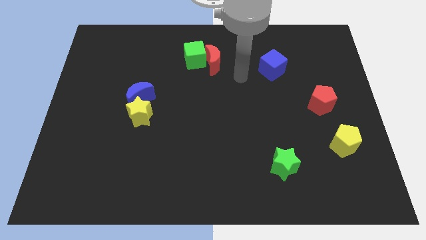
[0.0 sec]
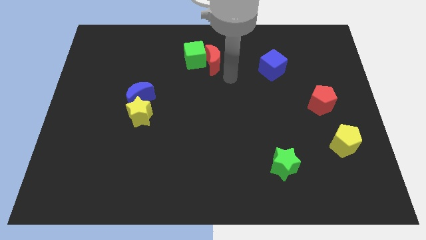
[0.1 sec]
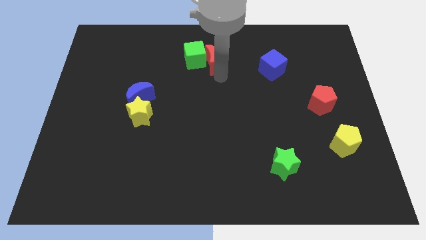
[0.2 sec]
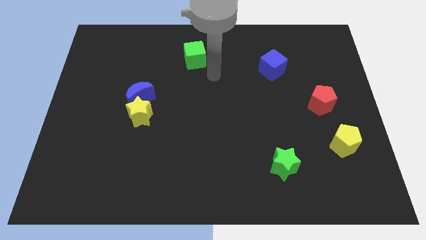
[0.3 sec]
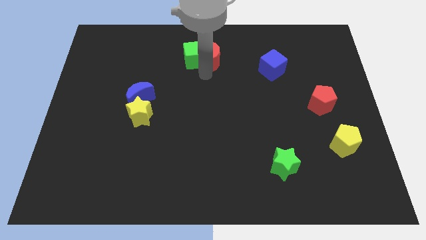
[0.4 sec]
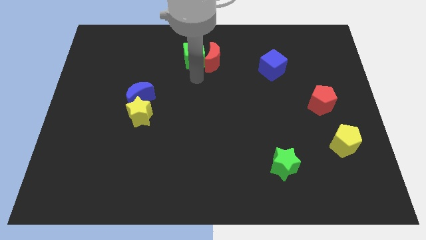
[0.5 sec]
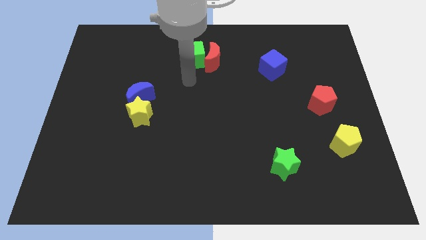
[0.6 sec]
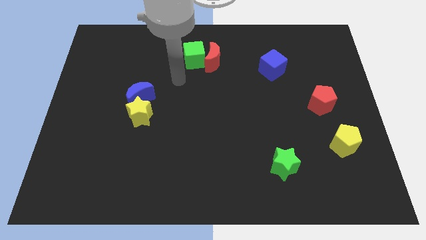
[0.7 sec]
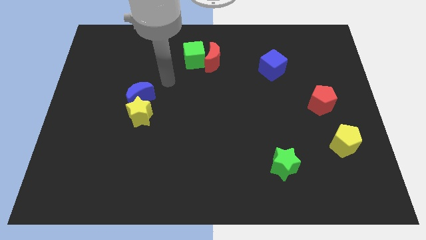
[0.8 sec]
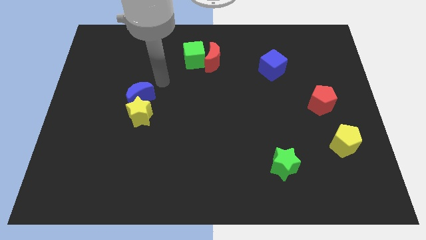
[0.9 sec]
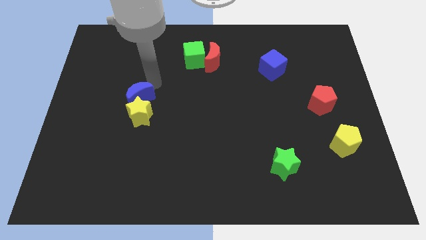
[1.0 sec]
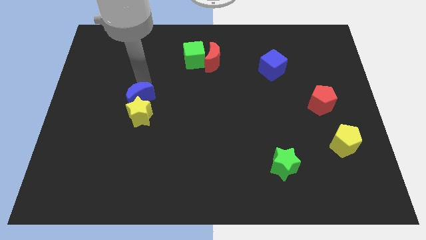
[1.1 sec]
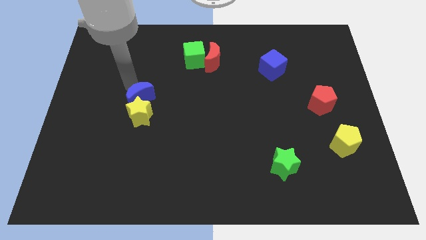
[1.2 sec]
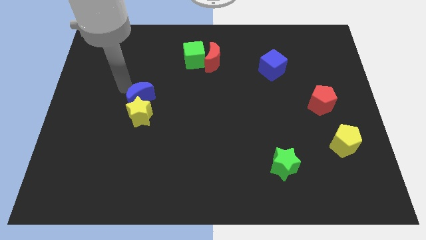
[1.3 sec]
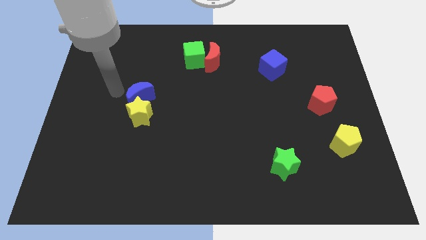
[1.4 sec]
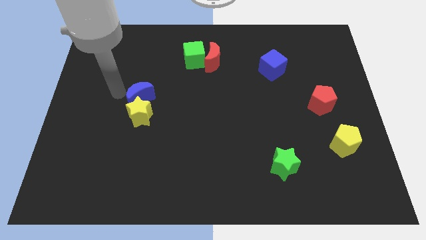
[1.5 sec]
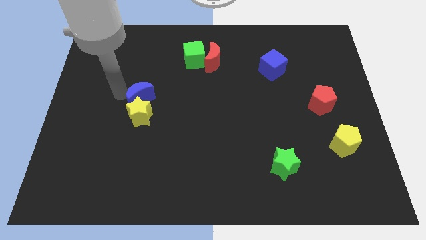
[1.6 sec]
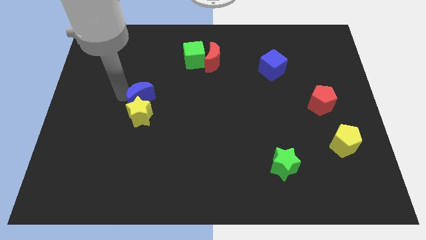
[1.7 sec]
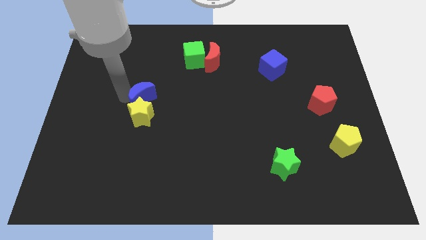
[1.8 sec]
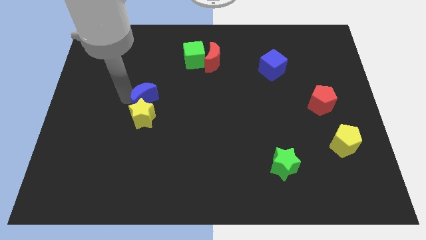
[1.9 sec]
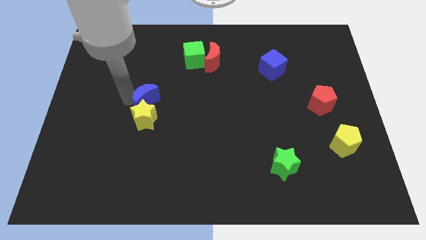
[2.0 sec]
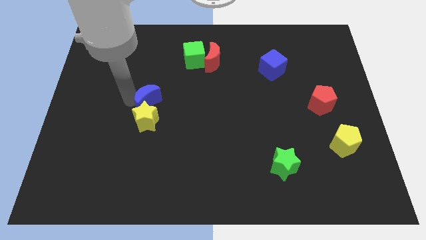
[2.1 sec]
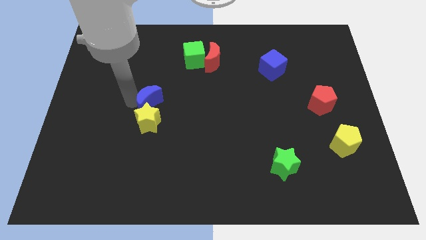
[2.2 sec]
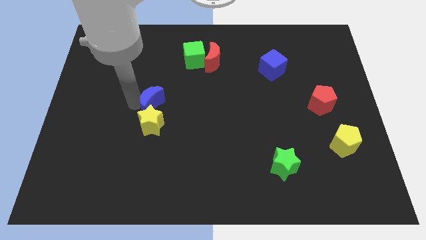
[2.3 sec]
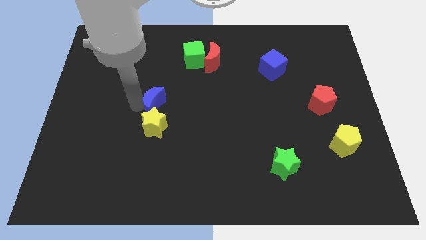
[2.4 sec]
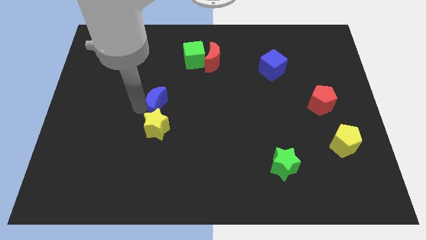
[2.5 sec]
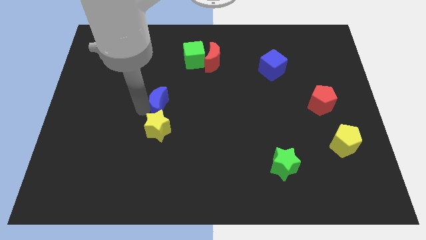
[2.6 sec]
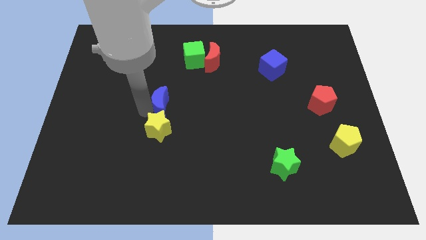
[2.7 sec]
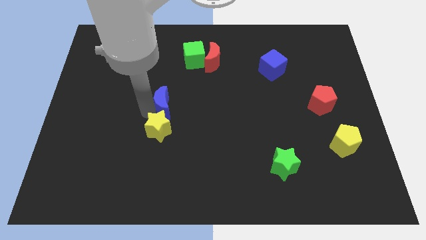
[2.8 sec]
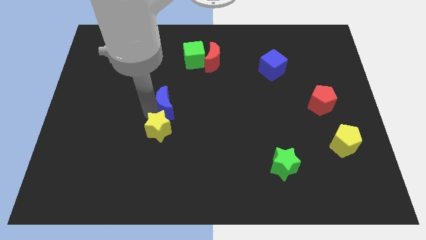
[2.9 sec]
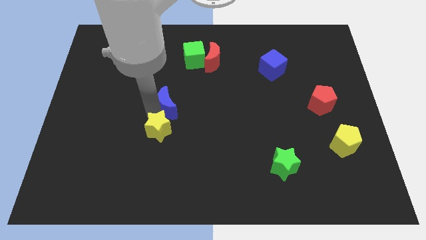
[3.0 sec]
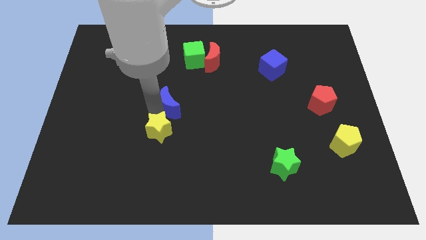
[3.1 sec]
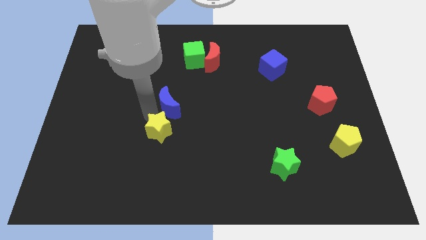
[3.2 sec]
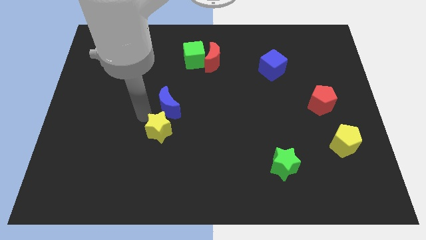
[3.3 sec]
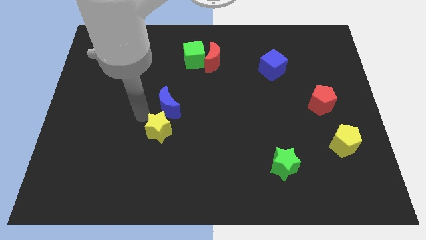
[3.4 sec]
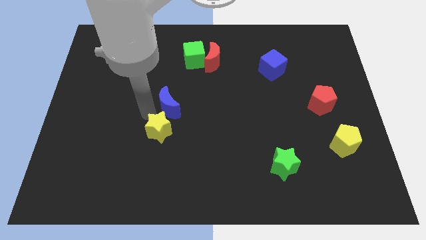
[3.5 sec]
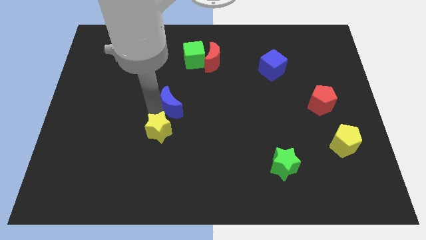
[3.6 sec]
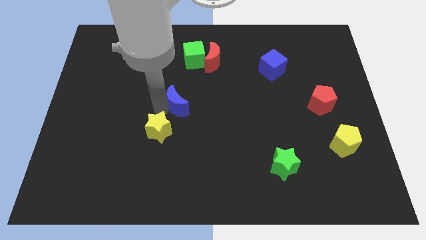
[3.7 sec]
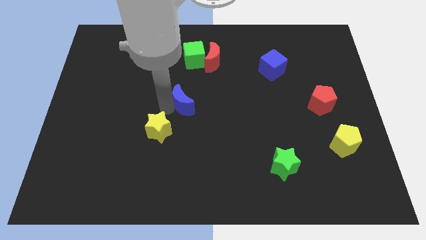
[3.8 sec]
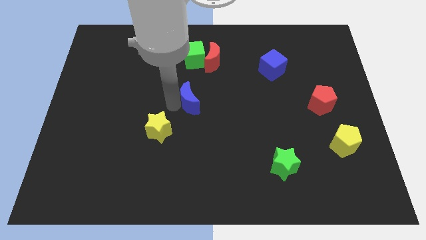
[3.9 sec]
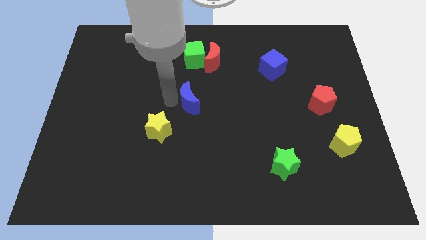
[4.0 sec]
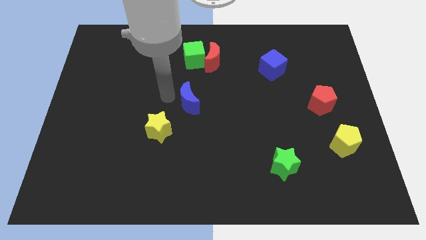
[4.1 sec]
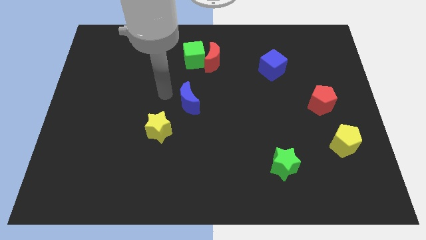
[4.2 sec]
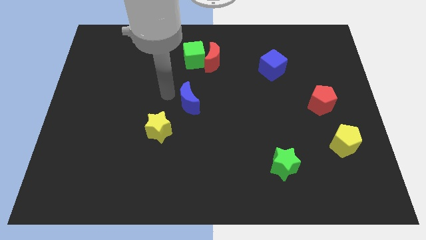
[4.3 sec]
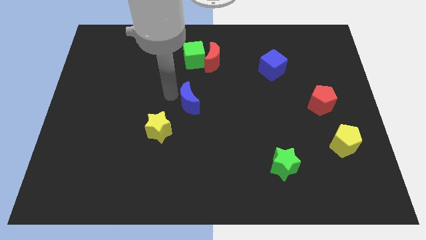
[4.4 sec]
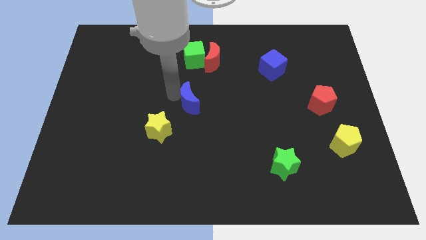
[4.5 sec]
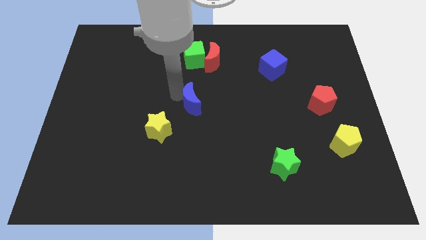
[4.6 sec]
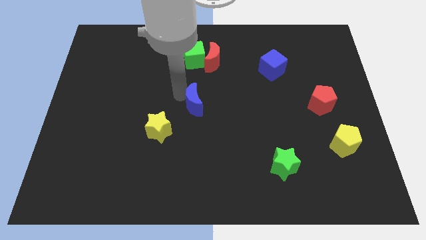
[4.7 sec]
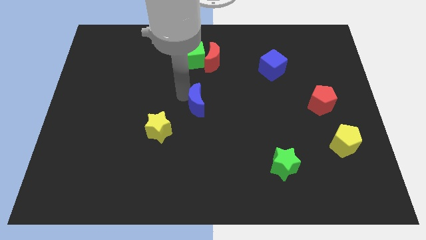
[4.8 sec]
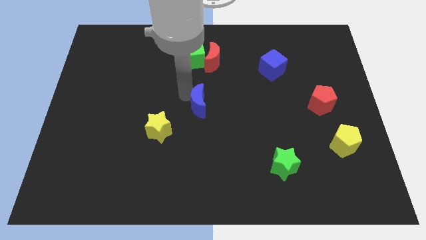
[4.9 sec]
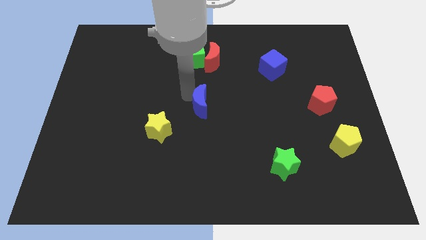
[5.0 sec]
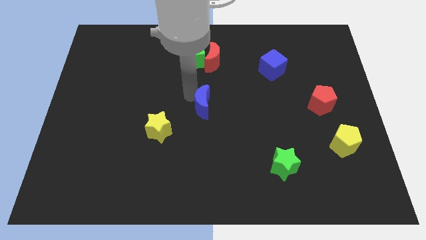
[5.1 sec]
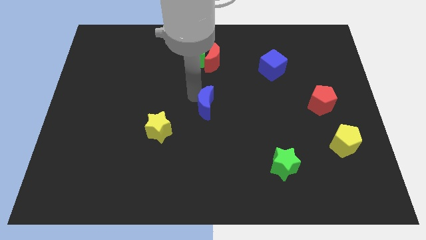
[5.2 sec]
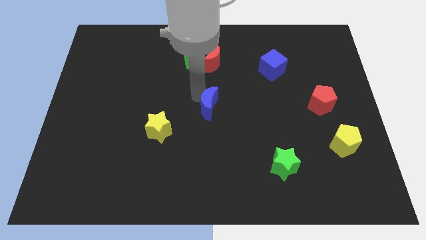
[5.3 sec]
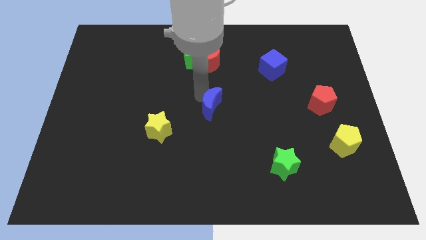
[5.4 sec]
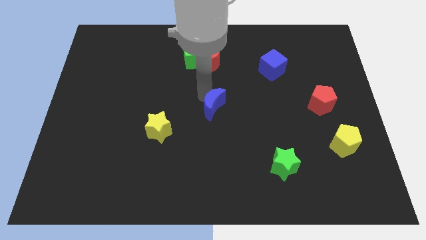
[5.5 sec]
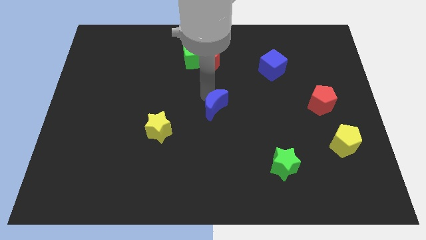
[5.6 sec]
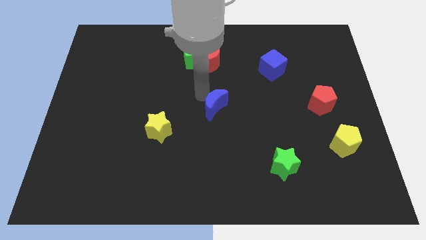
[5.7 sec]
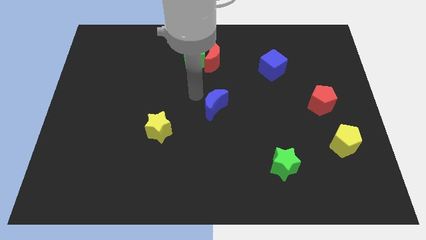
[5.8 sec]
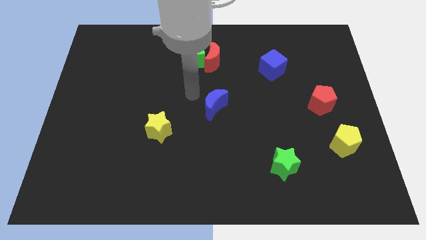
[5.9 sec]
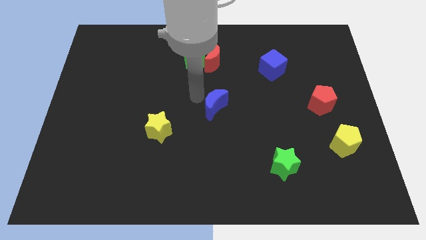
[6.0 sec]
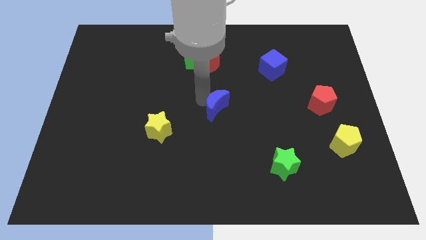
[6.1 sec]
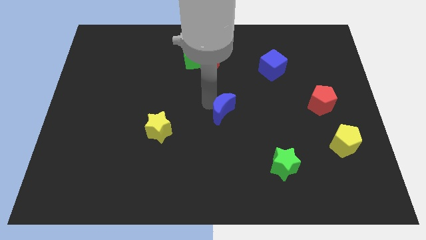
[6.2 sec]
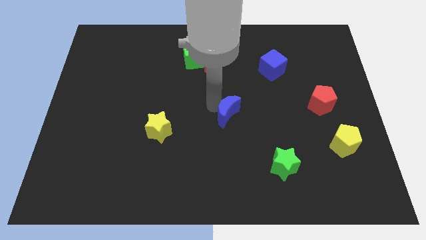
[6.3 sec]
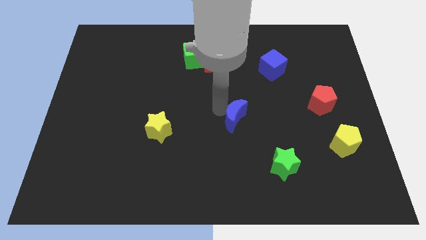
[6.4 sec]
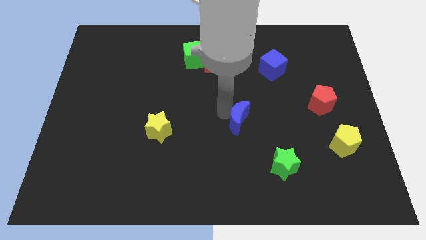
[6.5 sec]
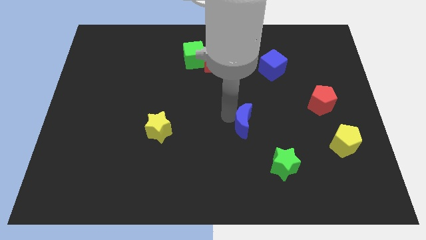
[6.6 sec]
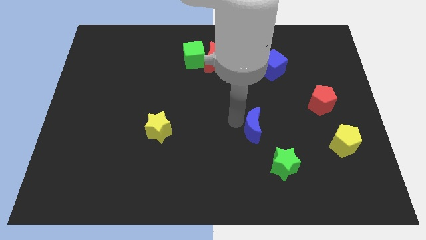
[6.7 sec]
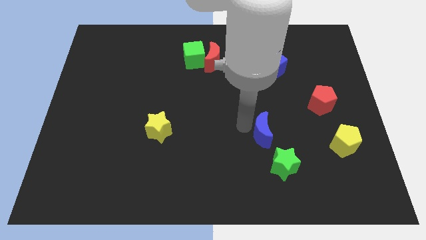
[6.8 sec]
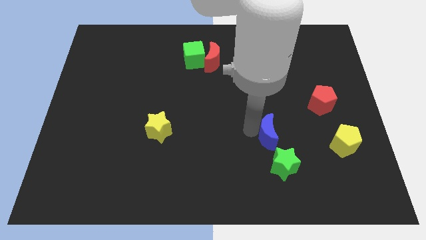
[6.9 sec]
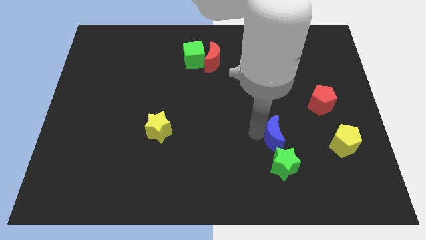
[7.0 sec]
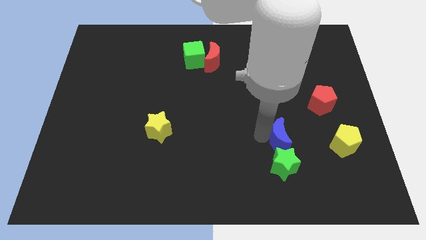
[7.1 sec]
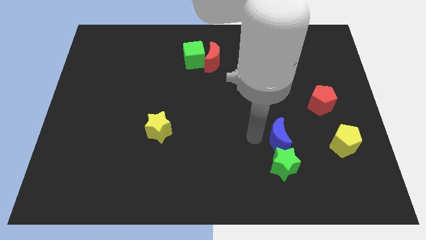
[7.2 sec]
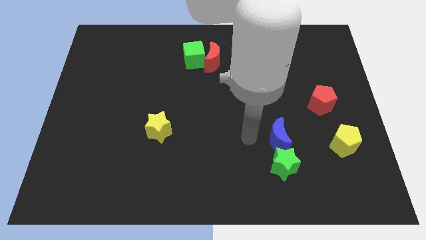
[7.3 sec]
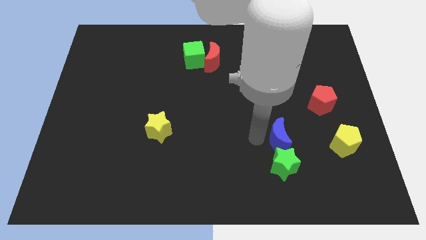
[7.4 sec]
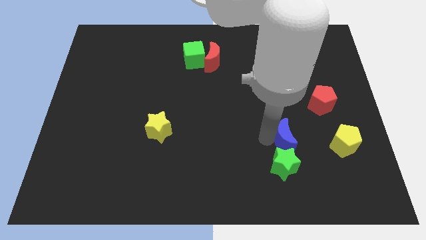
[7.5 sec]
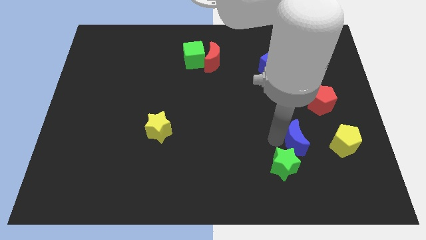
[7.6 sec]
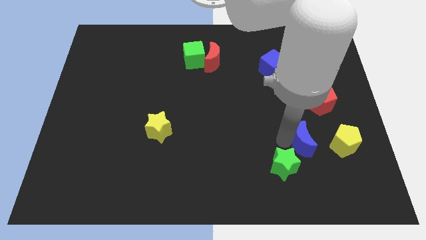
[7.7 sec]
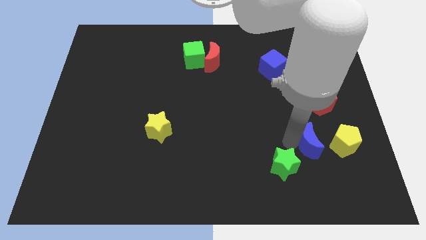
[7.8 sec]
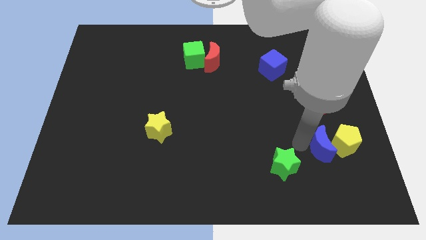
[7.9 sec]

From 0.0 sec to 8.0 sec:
put the blue moon towards the yellow pentagon
